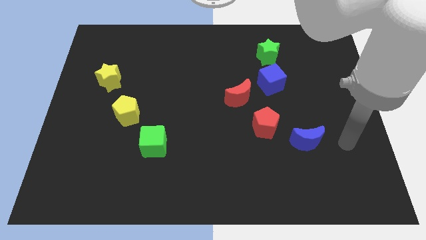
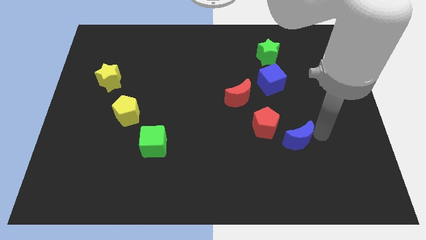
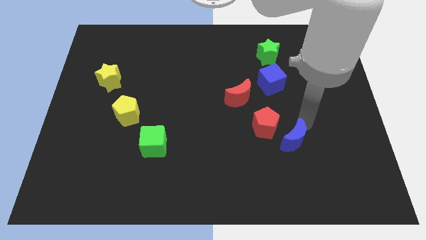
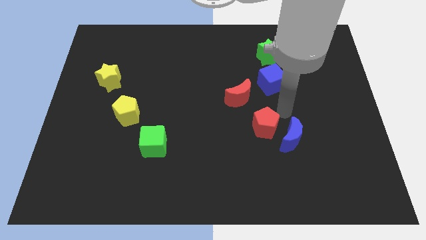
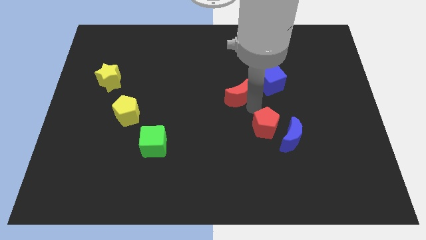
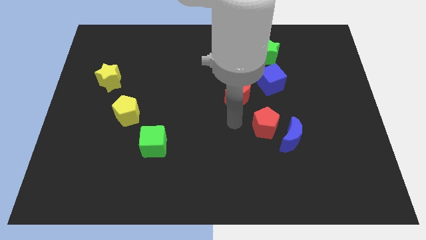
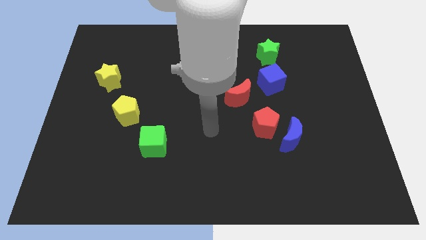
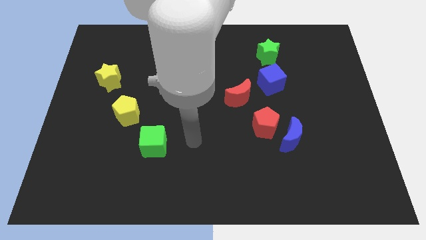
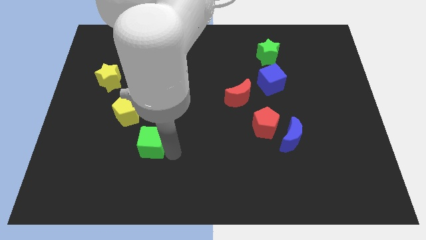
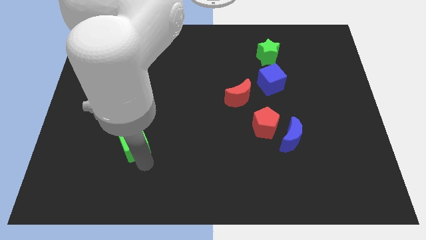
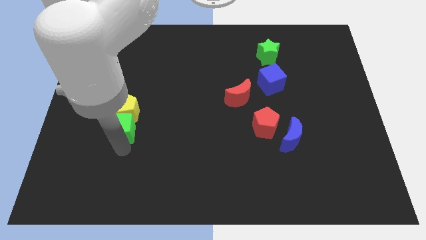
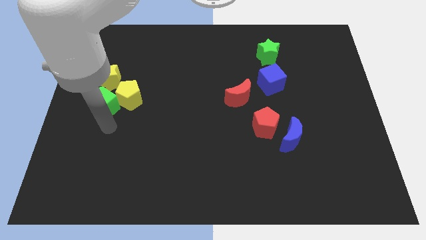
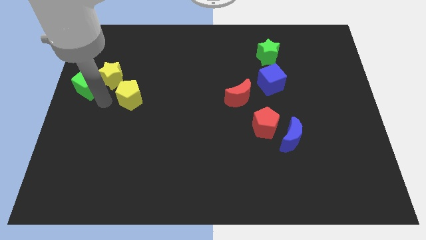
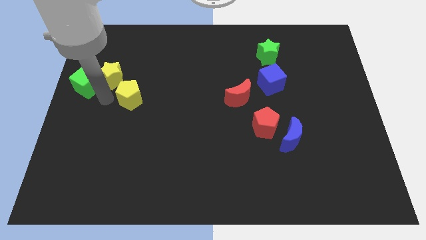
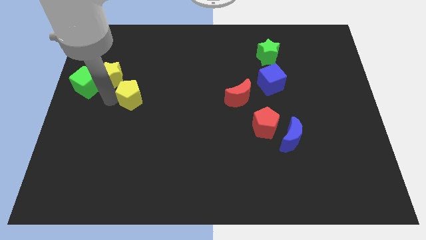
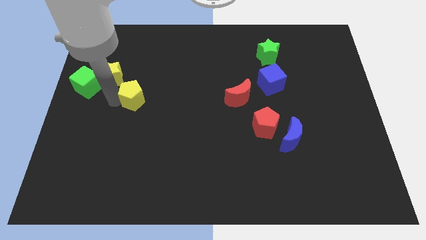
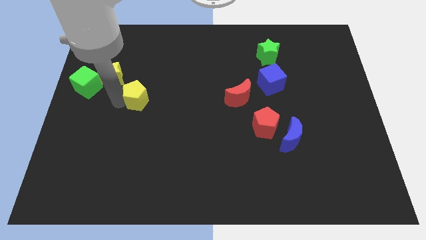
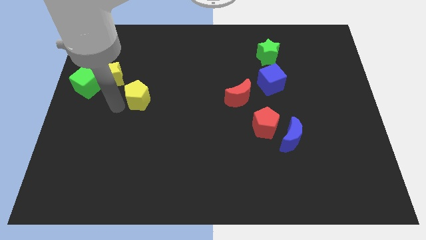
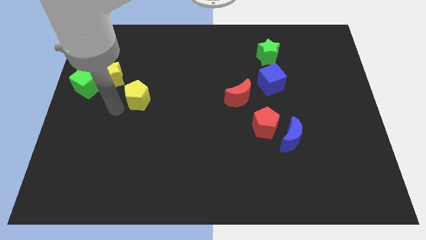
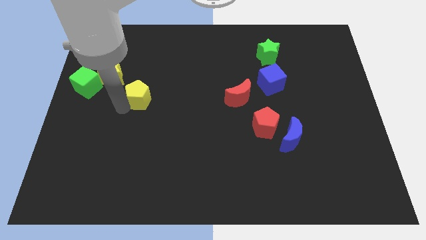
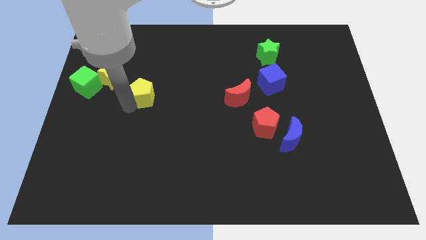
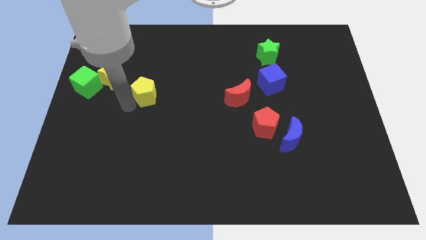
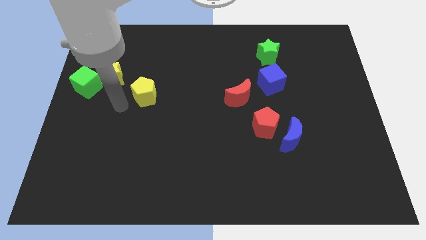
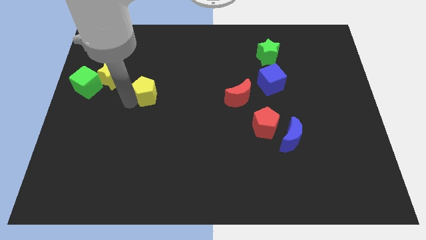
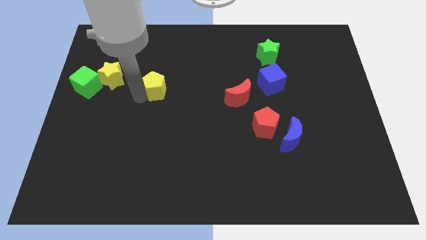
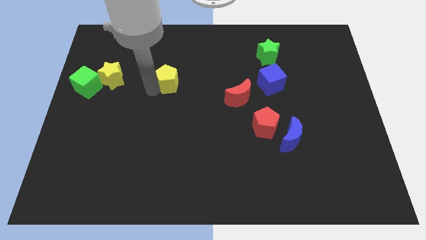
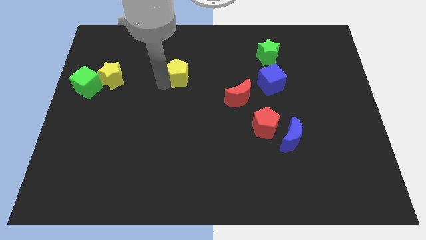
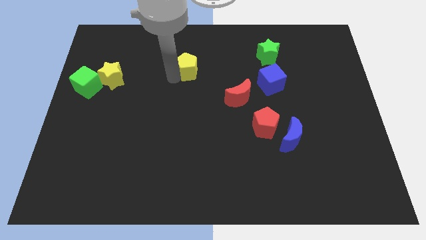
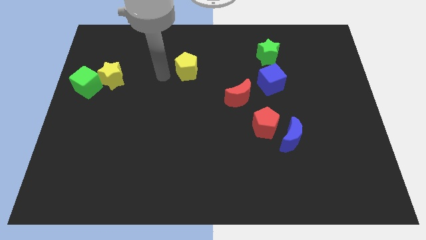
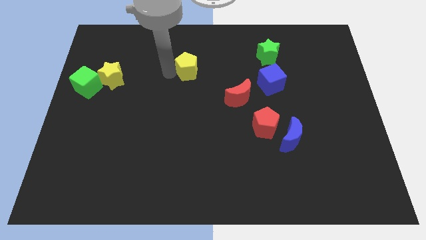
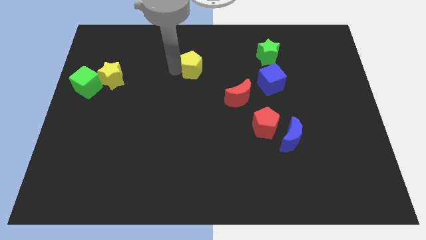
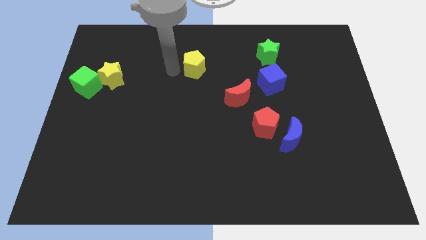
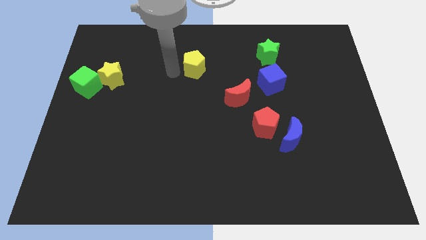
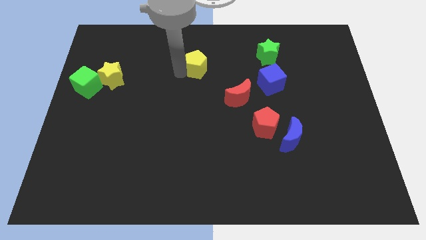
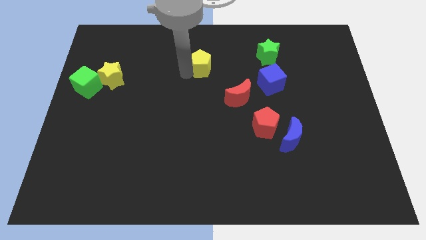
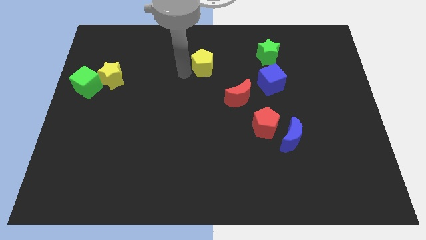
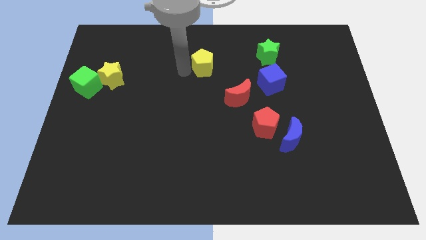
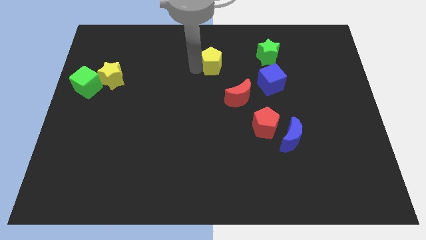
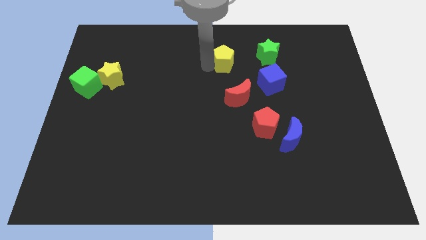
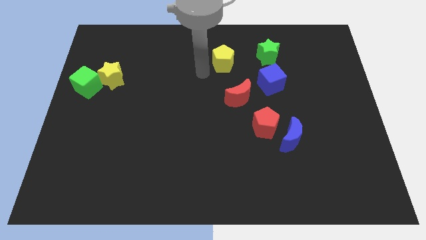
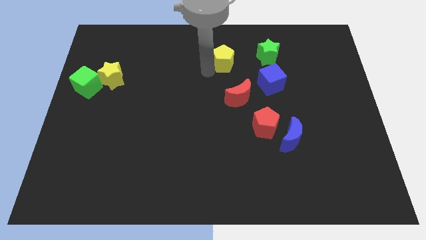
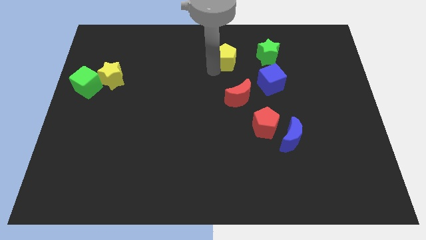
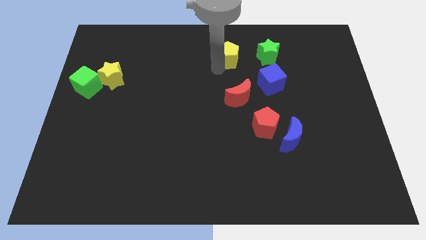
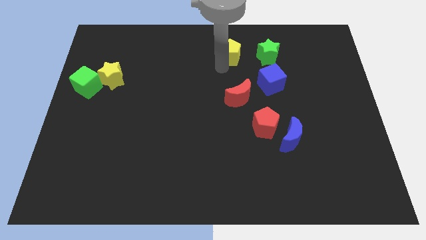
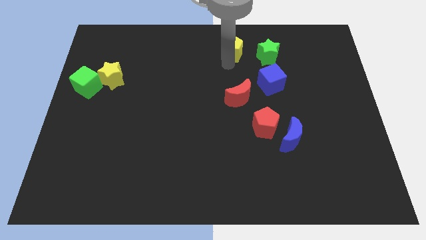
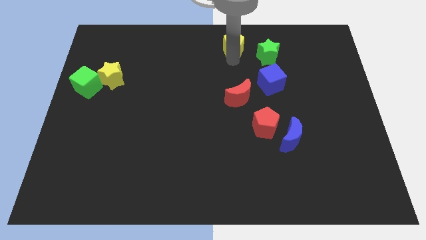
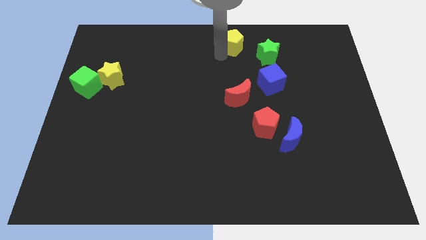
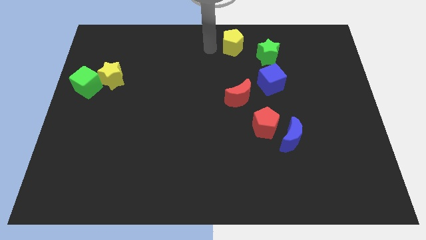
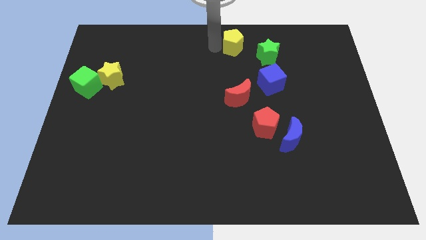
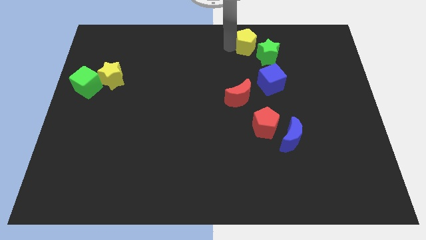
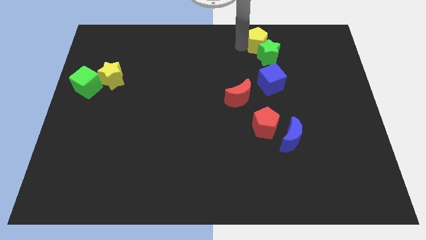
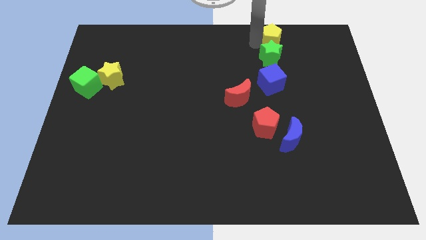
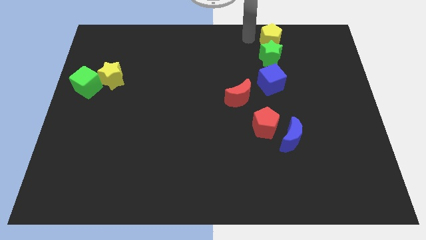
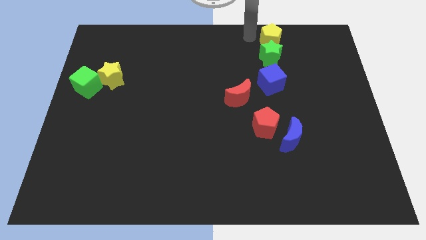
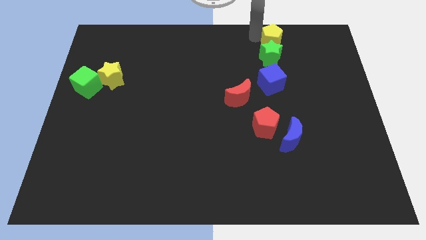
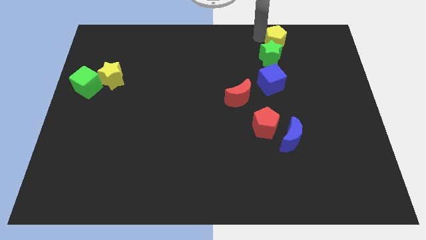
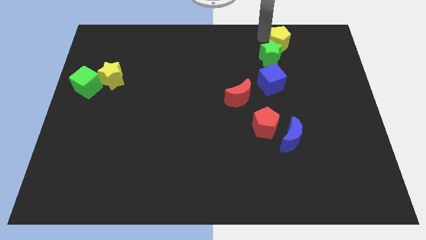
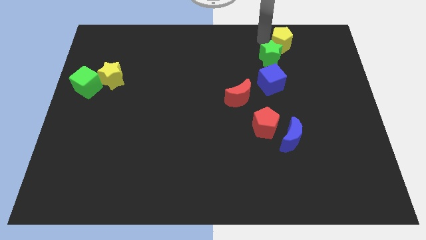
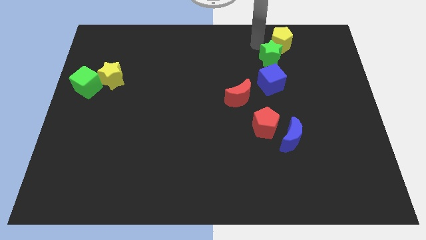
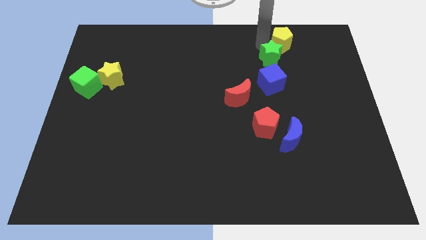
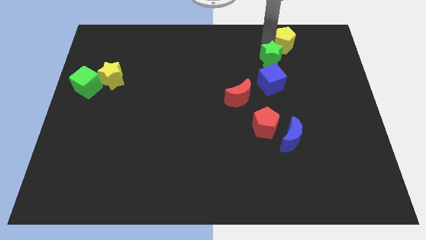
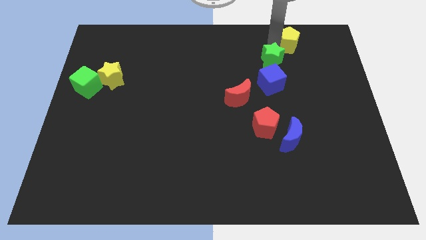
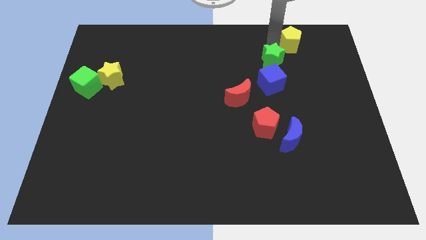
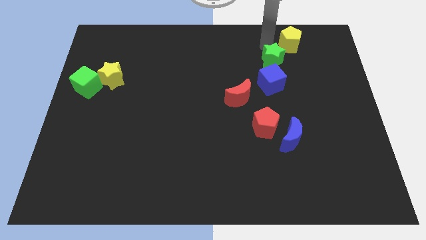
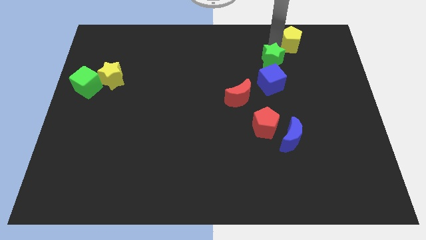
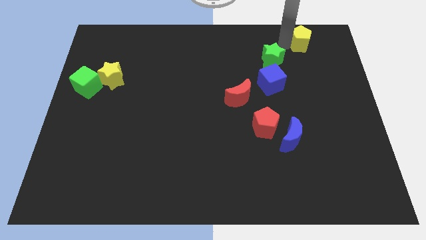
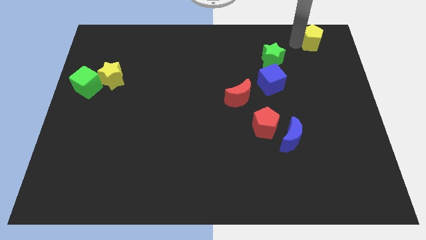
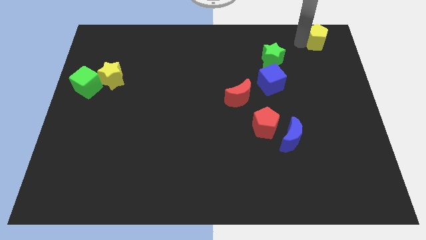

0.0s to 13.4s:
slide the yellow pentagon to the top right
